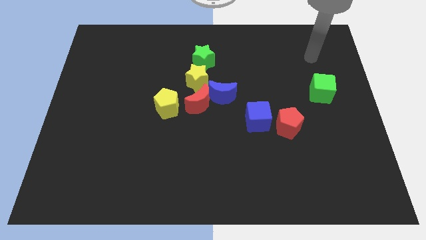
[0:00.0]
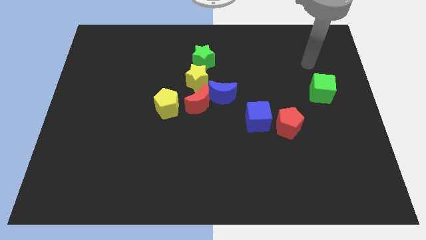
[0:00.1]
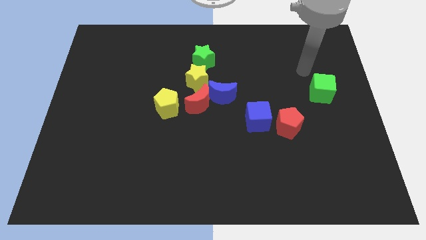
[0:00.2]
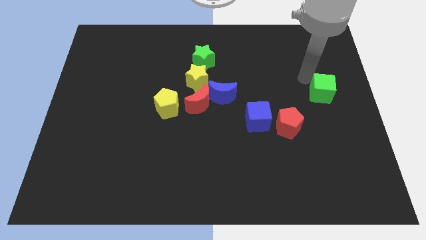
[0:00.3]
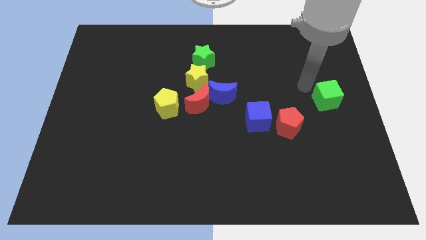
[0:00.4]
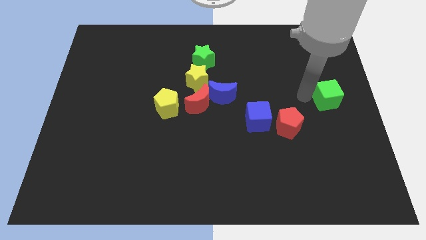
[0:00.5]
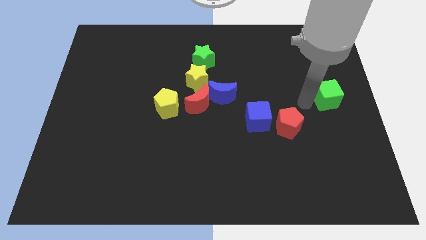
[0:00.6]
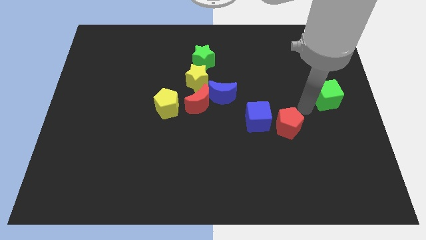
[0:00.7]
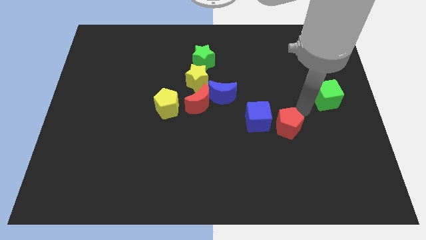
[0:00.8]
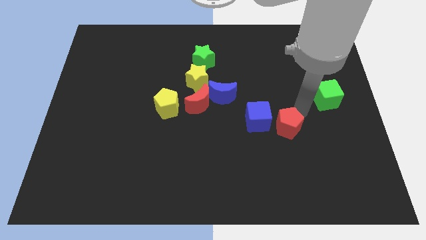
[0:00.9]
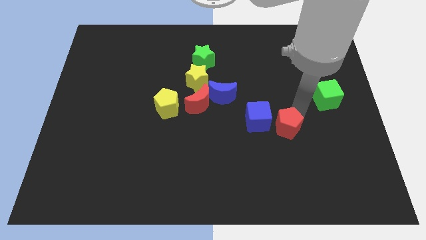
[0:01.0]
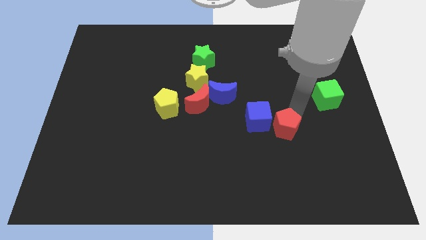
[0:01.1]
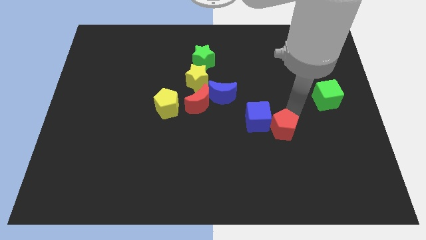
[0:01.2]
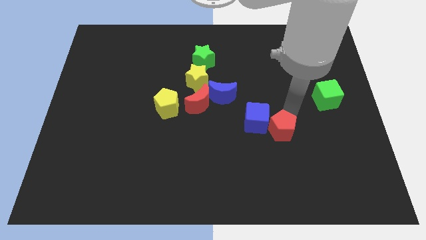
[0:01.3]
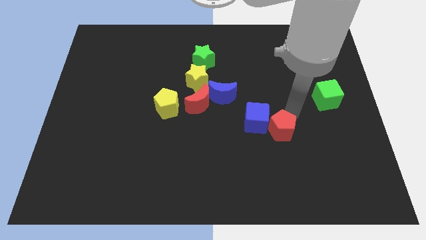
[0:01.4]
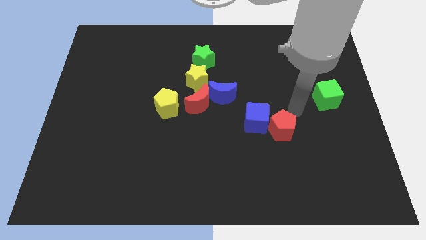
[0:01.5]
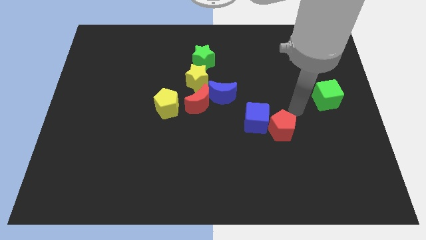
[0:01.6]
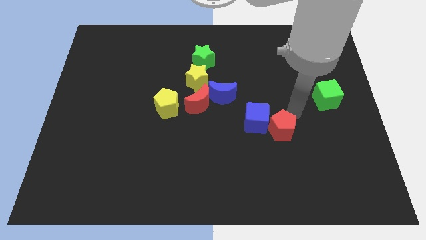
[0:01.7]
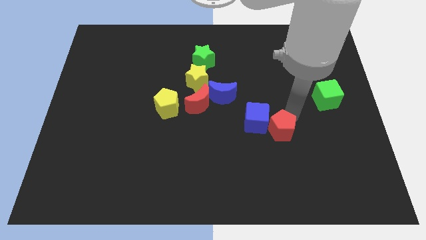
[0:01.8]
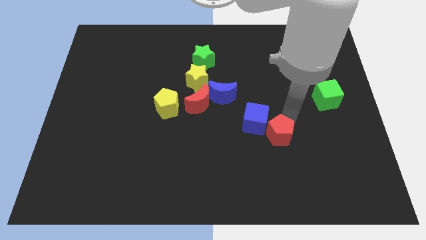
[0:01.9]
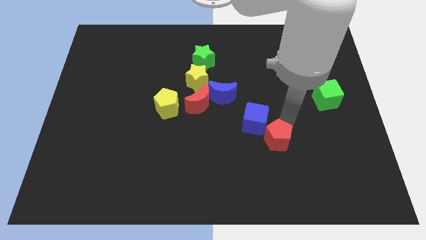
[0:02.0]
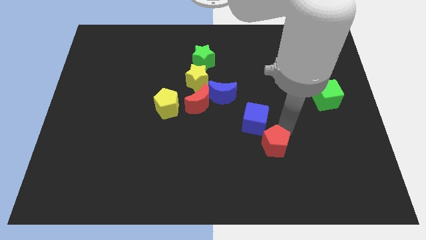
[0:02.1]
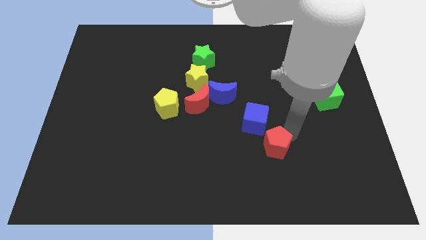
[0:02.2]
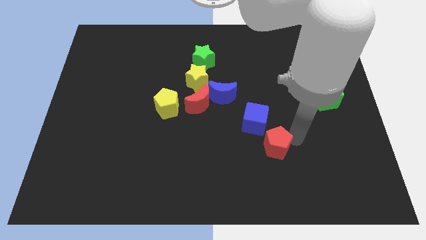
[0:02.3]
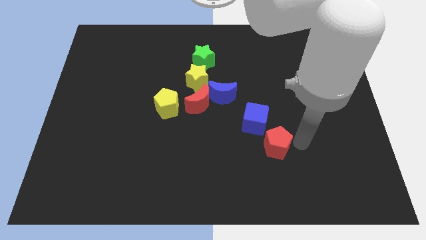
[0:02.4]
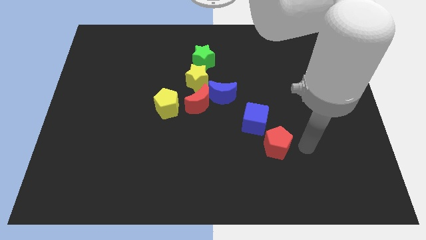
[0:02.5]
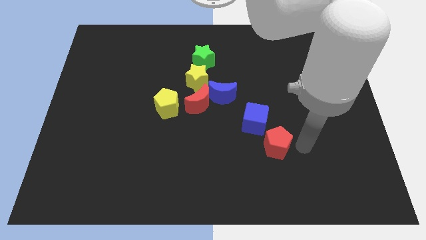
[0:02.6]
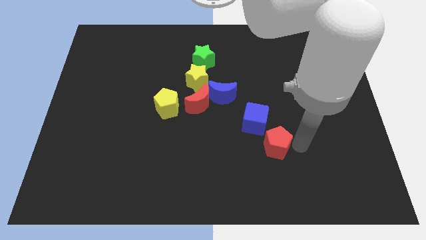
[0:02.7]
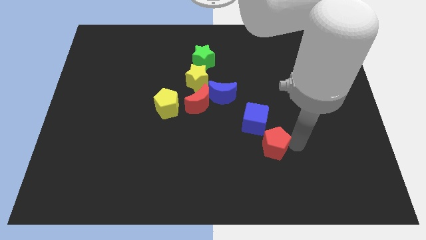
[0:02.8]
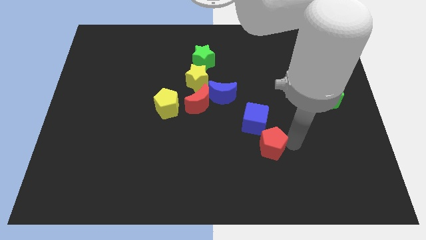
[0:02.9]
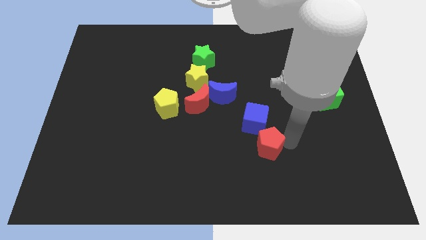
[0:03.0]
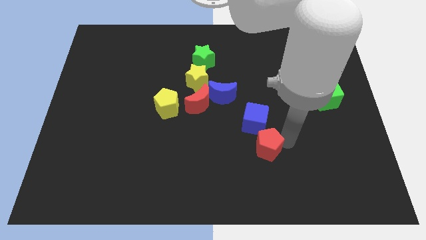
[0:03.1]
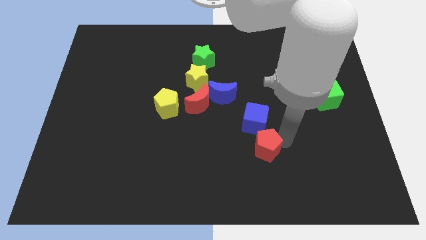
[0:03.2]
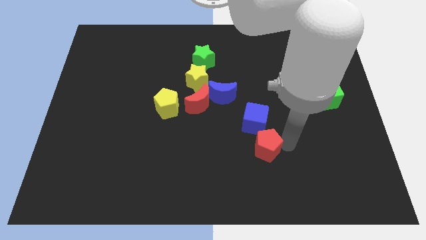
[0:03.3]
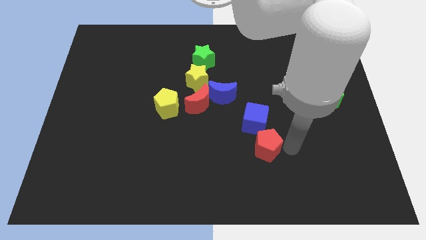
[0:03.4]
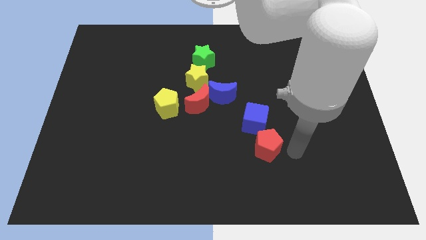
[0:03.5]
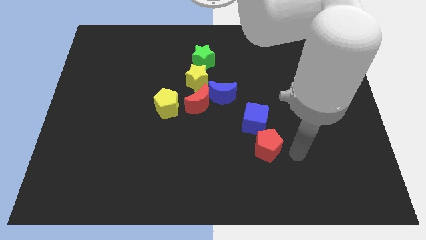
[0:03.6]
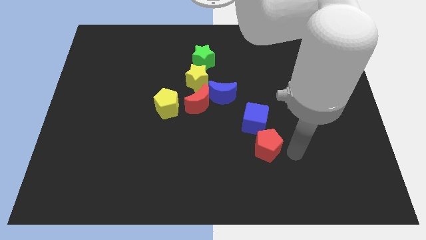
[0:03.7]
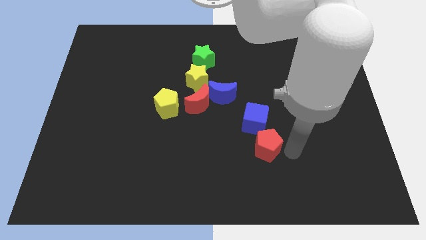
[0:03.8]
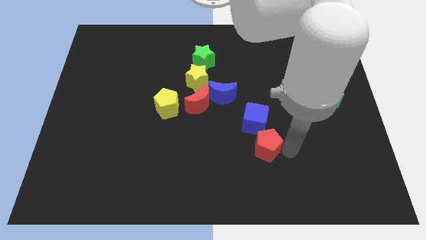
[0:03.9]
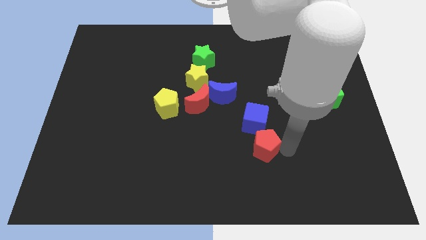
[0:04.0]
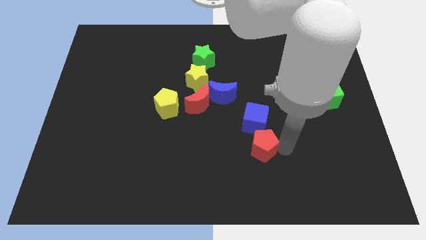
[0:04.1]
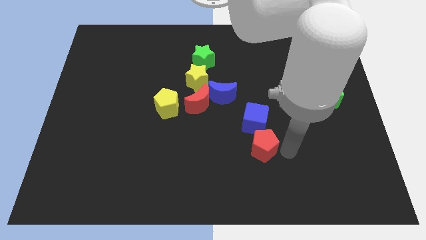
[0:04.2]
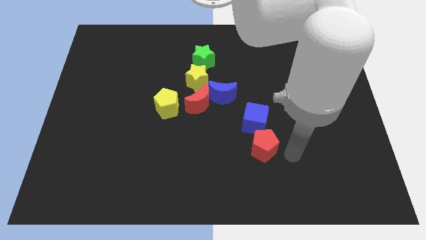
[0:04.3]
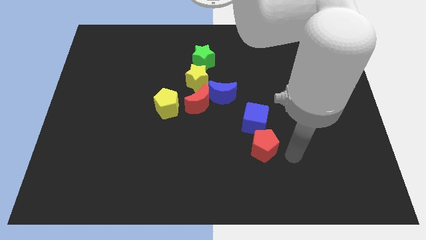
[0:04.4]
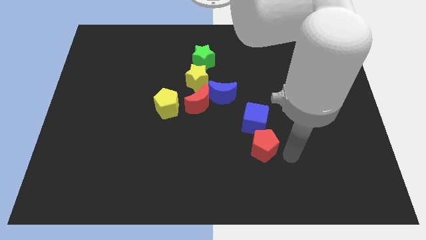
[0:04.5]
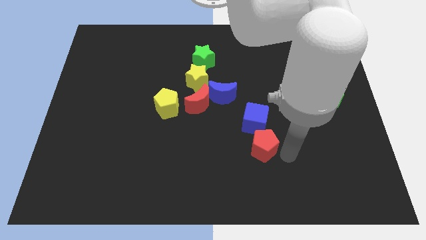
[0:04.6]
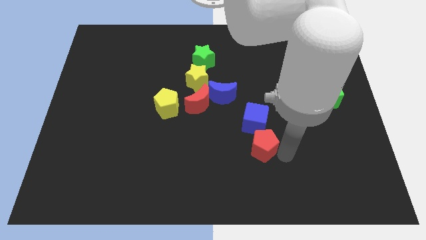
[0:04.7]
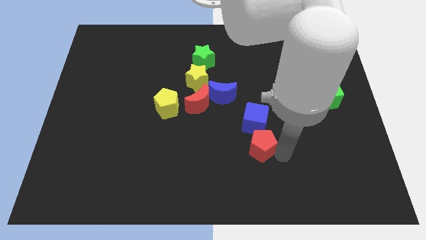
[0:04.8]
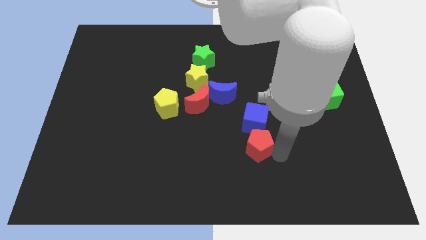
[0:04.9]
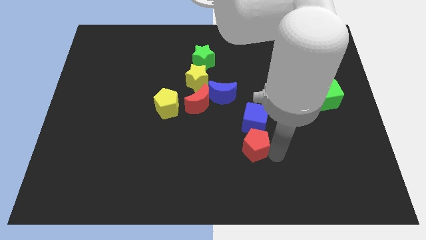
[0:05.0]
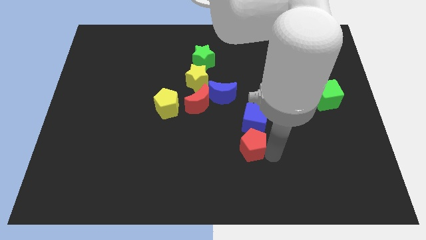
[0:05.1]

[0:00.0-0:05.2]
slide the red pentagon left a little

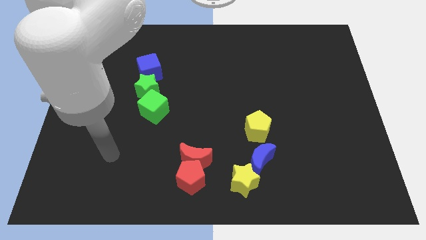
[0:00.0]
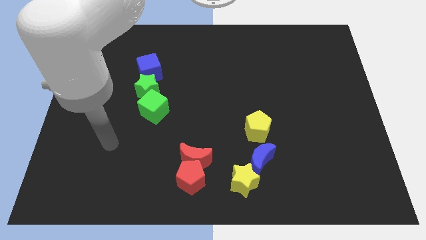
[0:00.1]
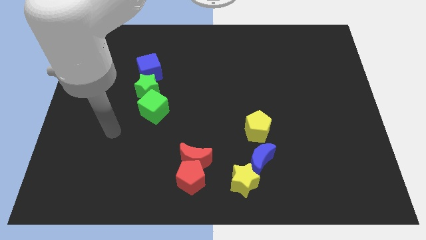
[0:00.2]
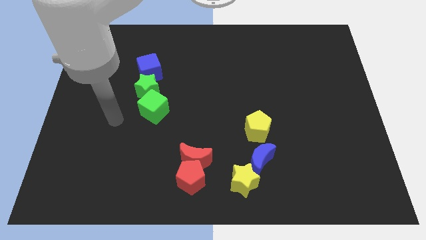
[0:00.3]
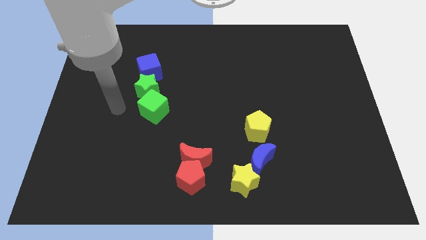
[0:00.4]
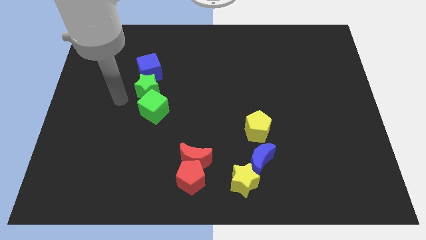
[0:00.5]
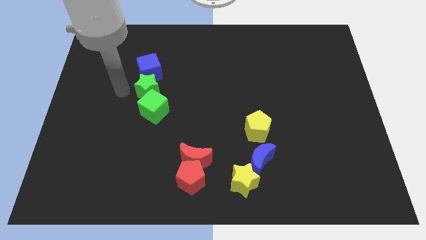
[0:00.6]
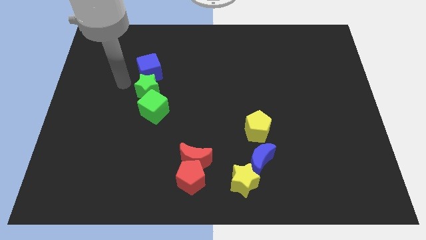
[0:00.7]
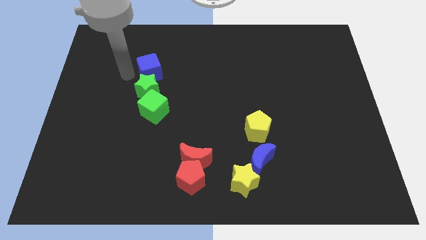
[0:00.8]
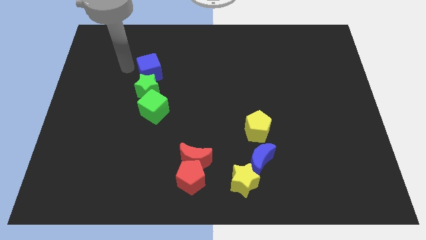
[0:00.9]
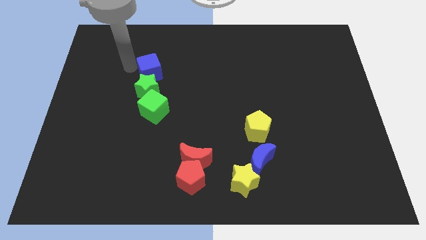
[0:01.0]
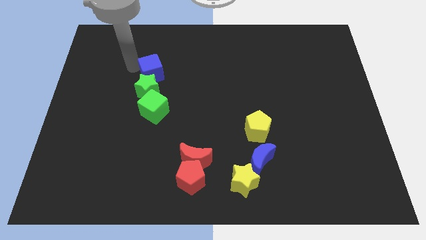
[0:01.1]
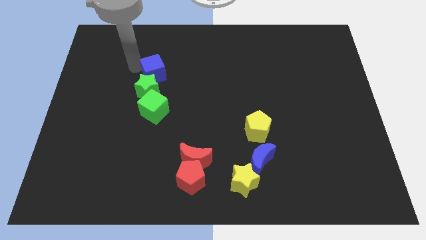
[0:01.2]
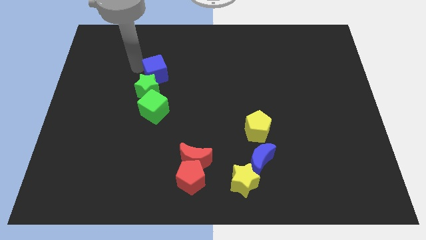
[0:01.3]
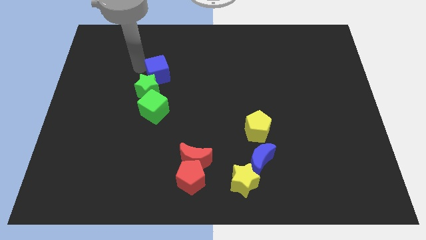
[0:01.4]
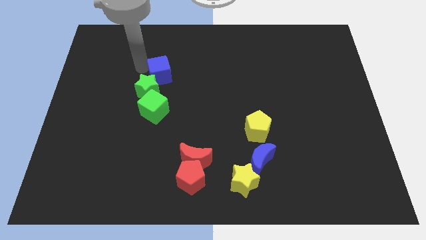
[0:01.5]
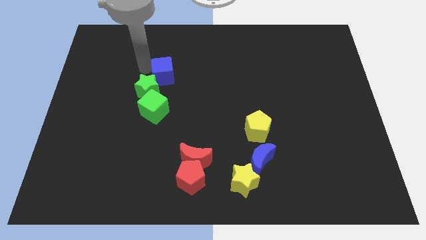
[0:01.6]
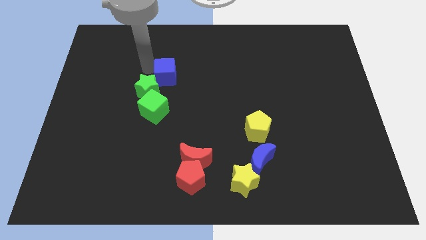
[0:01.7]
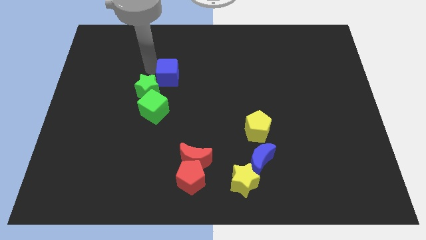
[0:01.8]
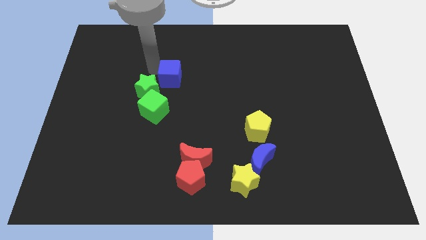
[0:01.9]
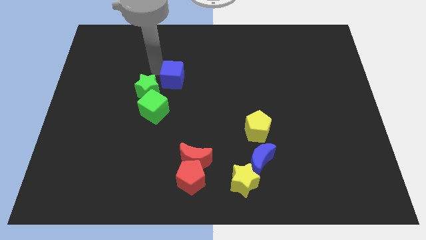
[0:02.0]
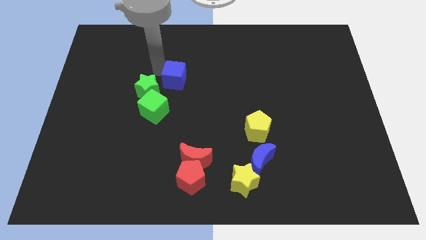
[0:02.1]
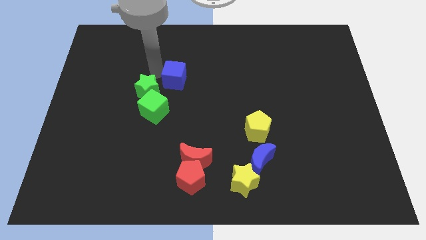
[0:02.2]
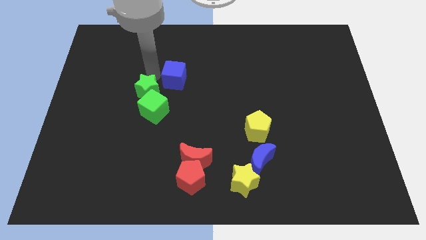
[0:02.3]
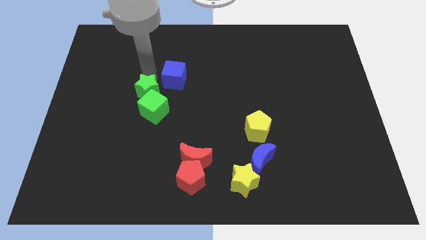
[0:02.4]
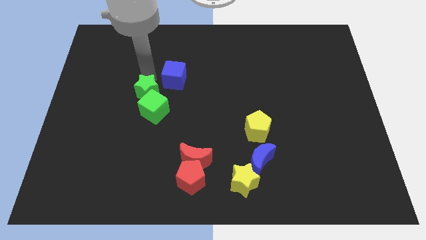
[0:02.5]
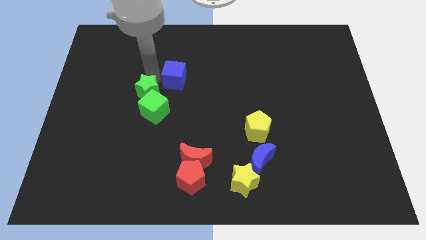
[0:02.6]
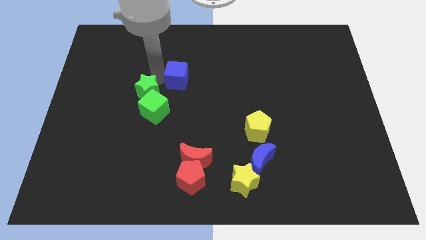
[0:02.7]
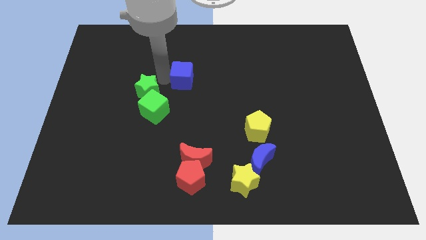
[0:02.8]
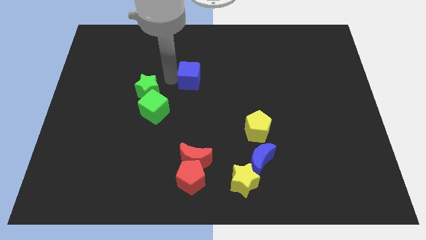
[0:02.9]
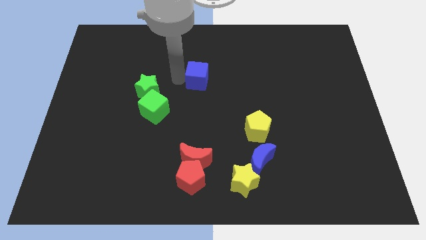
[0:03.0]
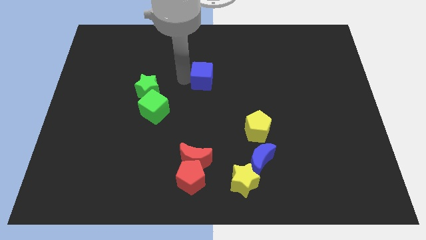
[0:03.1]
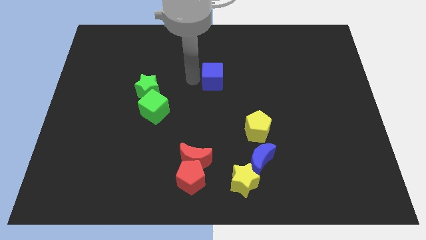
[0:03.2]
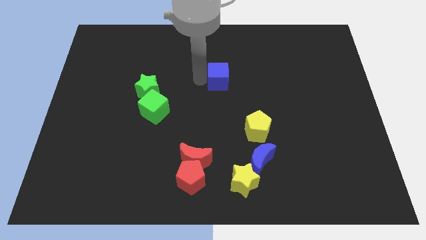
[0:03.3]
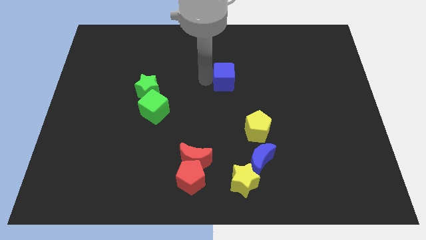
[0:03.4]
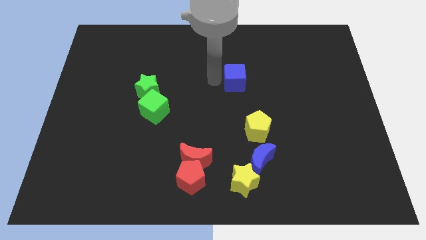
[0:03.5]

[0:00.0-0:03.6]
slide the blue cube to the right
